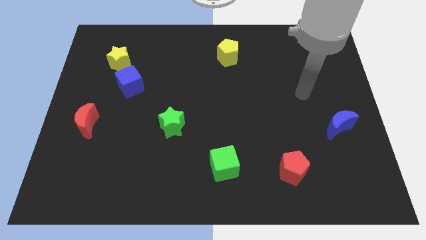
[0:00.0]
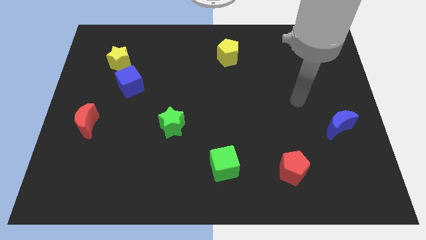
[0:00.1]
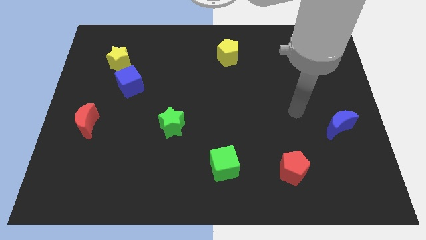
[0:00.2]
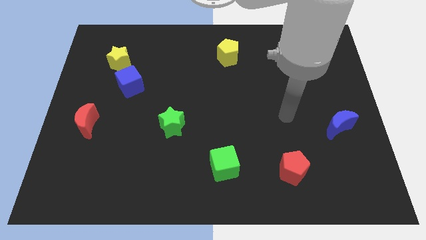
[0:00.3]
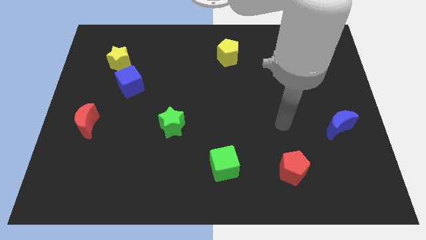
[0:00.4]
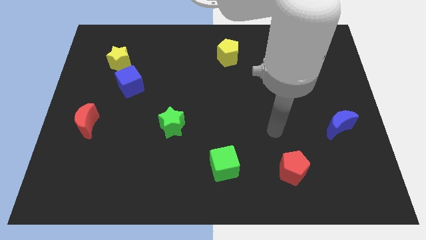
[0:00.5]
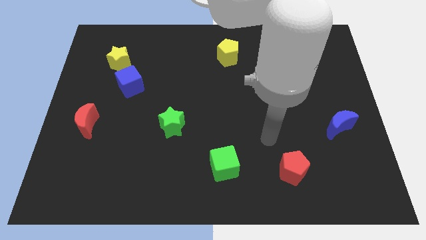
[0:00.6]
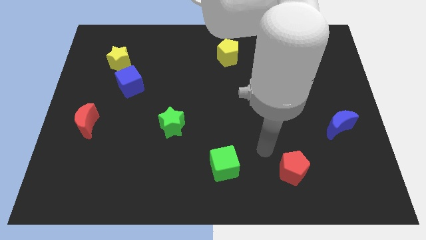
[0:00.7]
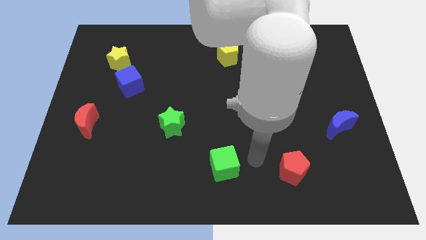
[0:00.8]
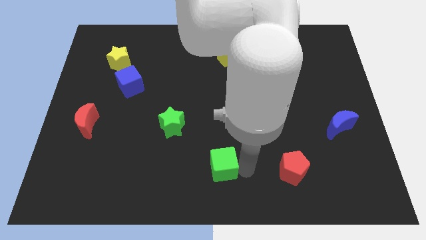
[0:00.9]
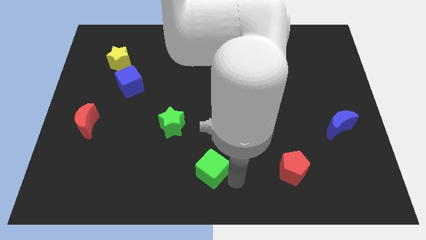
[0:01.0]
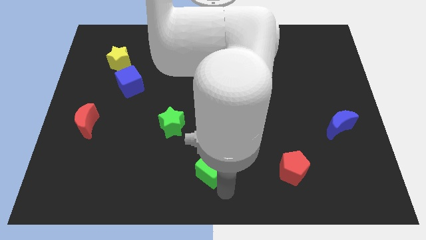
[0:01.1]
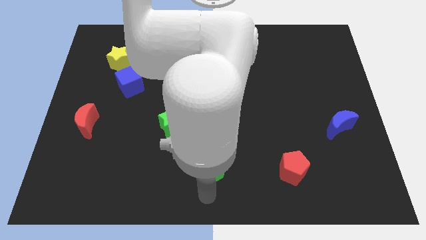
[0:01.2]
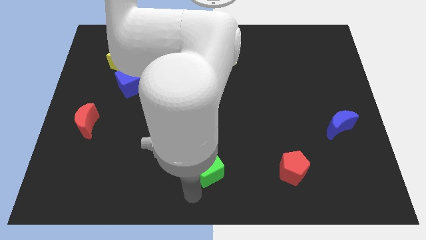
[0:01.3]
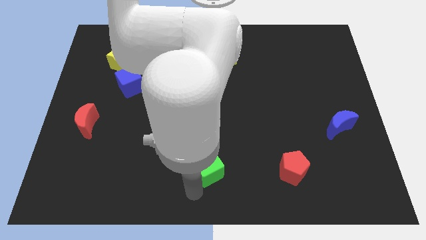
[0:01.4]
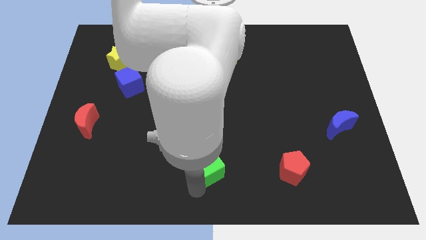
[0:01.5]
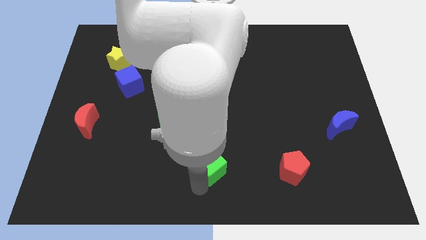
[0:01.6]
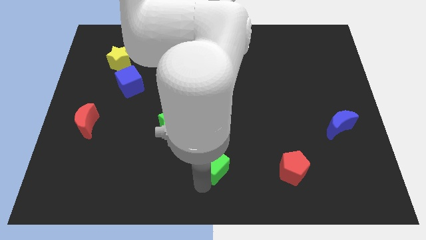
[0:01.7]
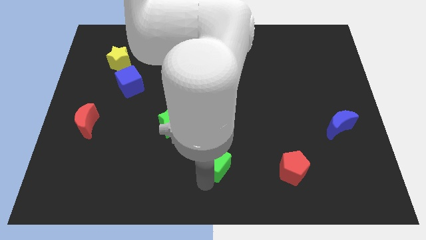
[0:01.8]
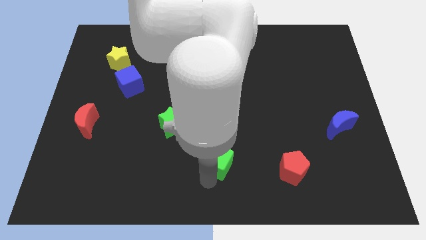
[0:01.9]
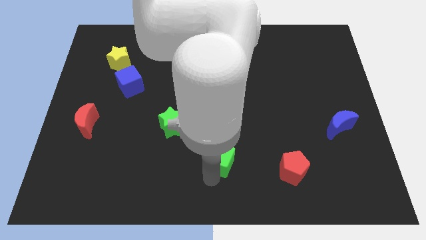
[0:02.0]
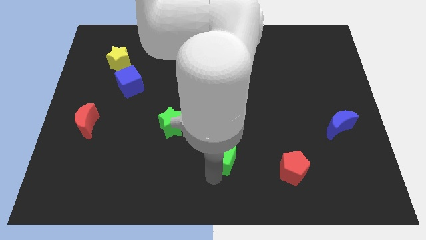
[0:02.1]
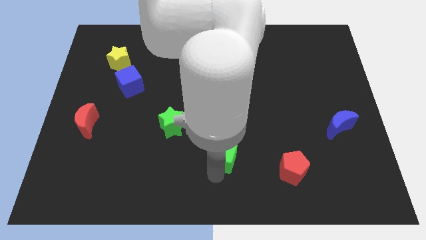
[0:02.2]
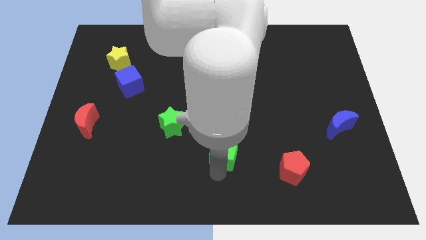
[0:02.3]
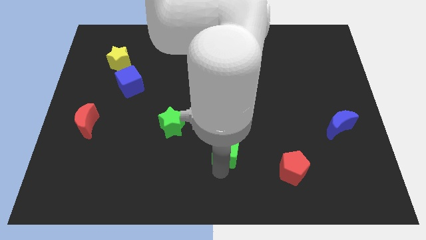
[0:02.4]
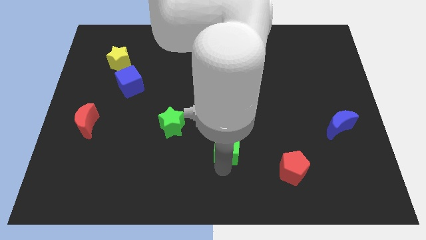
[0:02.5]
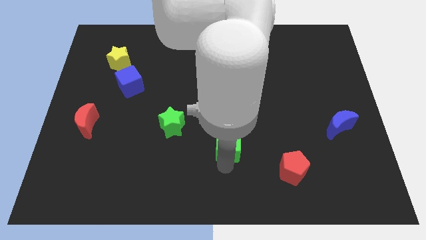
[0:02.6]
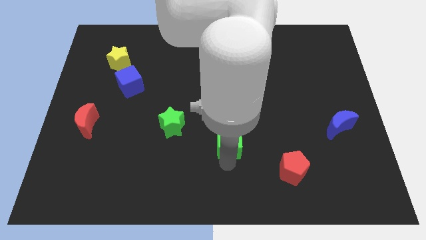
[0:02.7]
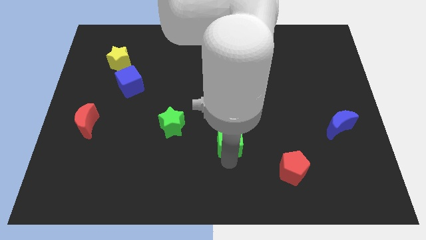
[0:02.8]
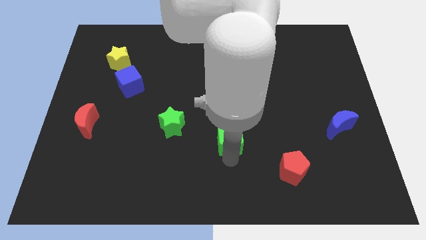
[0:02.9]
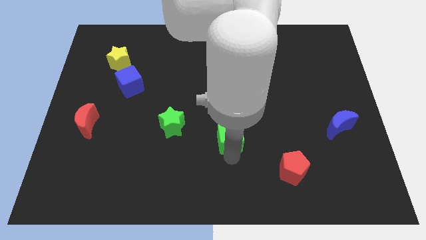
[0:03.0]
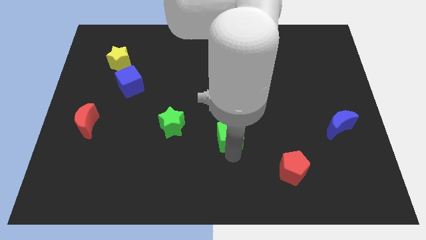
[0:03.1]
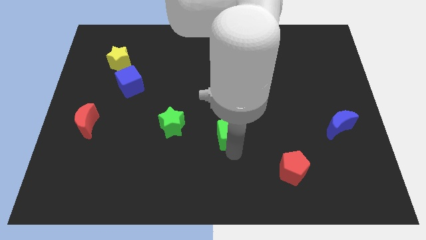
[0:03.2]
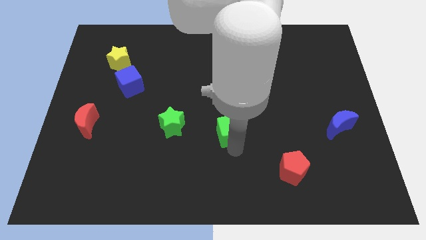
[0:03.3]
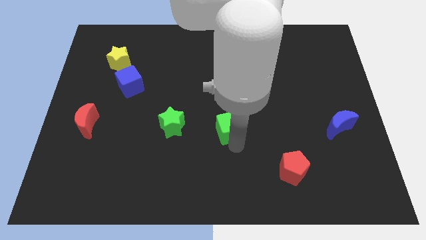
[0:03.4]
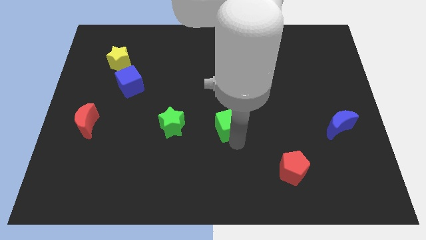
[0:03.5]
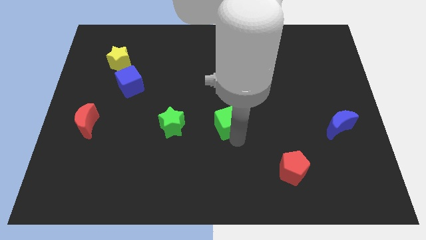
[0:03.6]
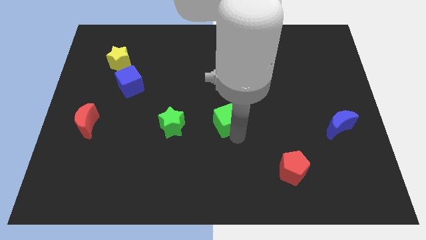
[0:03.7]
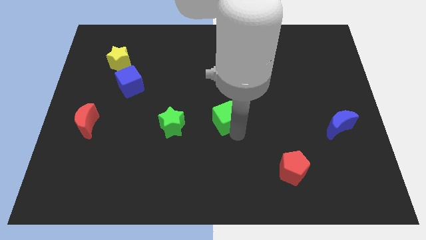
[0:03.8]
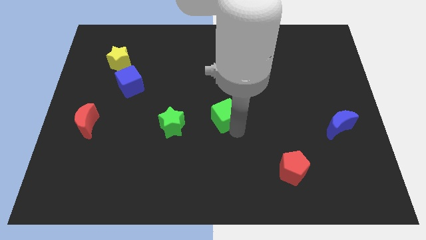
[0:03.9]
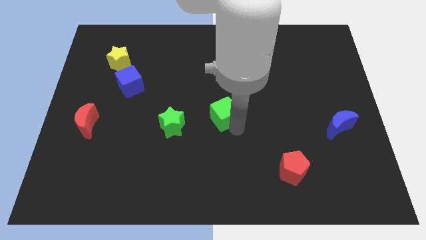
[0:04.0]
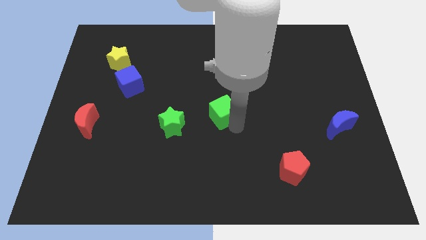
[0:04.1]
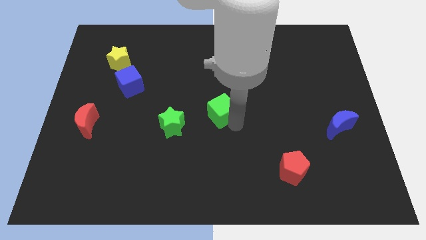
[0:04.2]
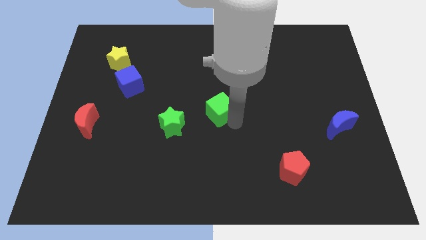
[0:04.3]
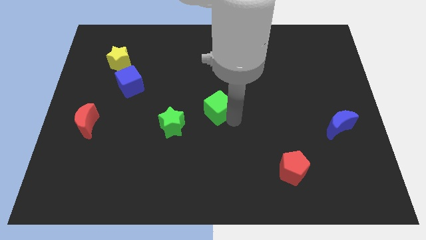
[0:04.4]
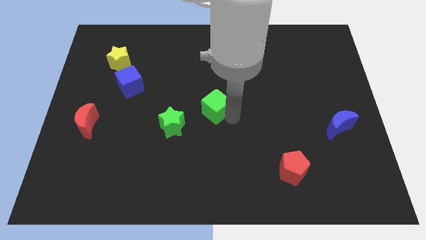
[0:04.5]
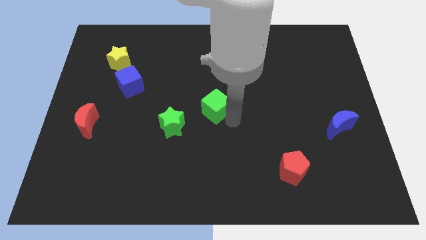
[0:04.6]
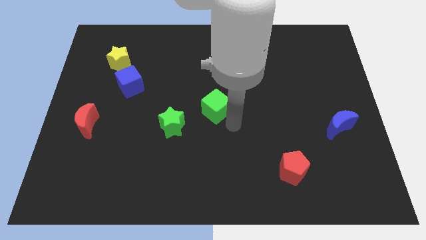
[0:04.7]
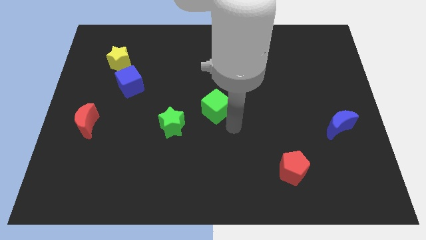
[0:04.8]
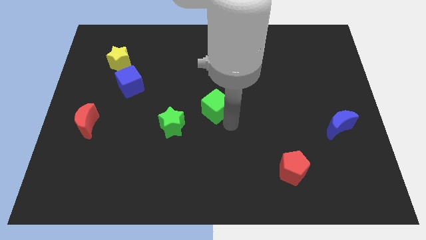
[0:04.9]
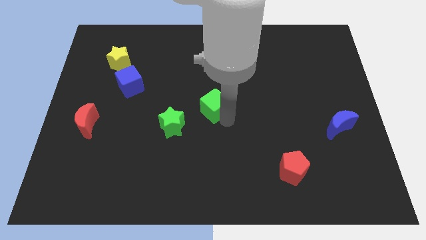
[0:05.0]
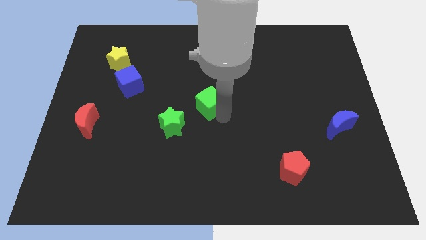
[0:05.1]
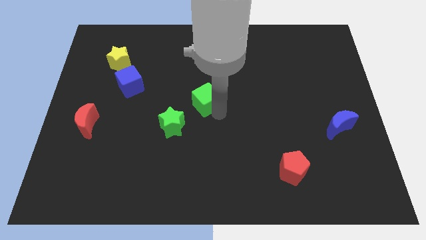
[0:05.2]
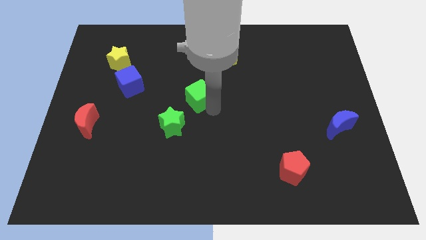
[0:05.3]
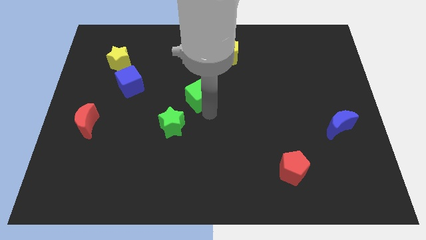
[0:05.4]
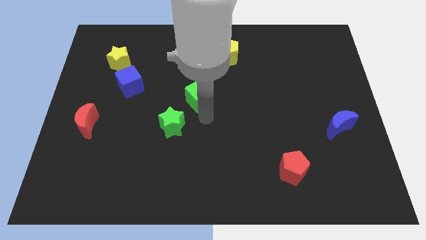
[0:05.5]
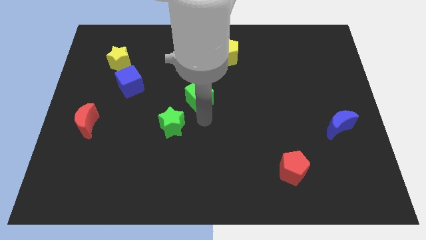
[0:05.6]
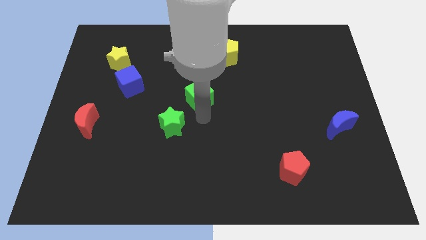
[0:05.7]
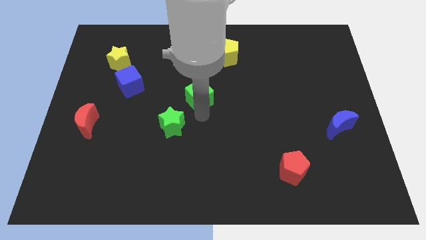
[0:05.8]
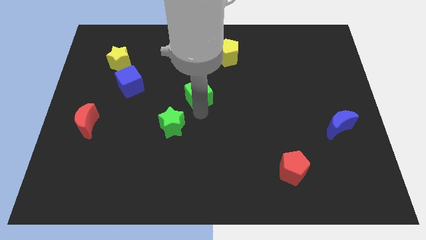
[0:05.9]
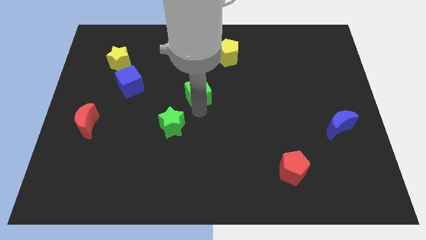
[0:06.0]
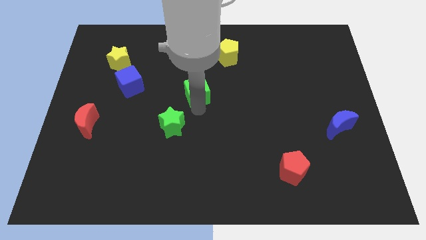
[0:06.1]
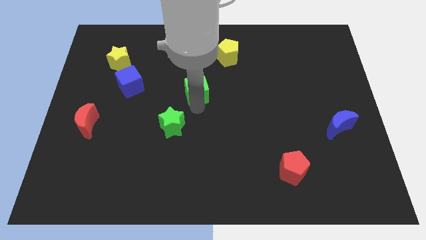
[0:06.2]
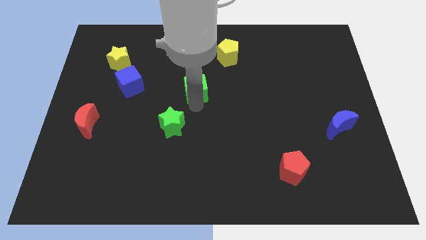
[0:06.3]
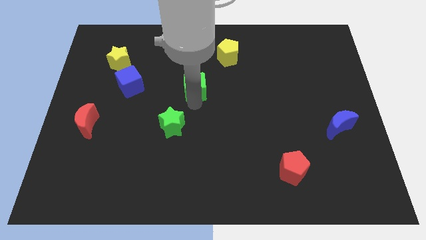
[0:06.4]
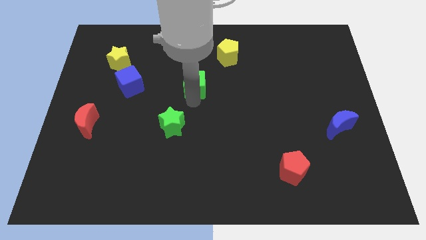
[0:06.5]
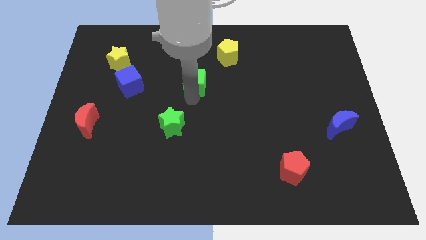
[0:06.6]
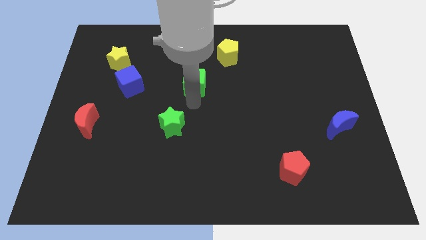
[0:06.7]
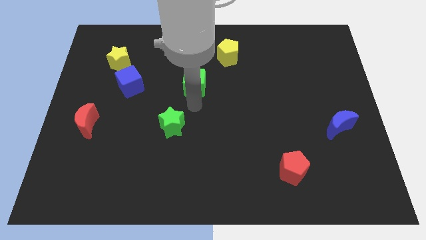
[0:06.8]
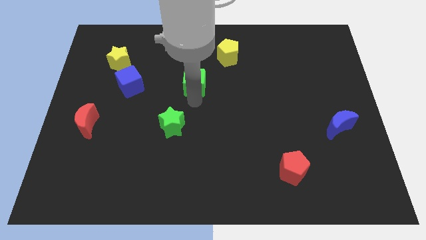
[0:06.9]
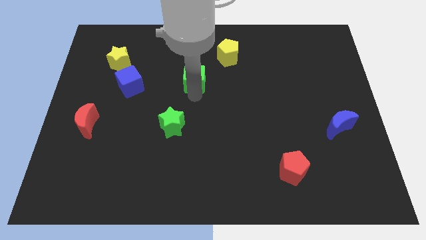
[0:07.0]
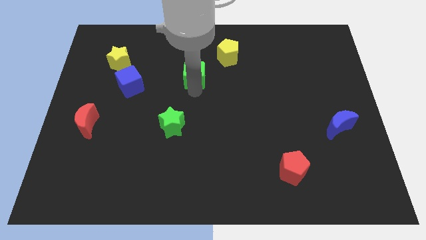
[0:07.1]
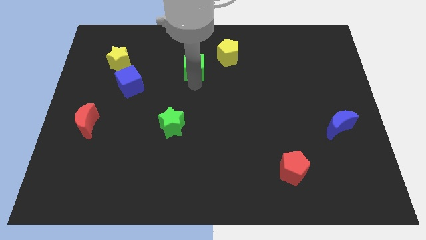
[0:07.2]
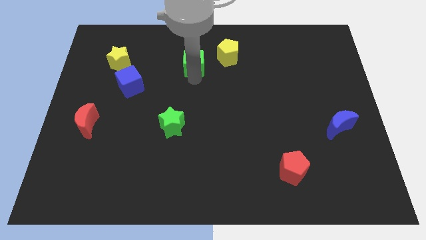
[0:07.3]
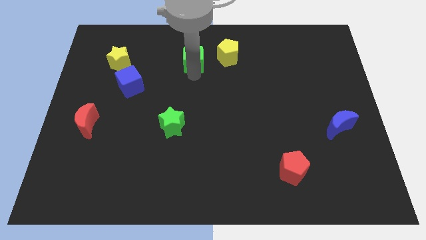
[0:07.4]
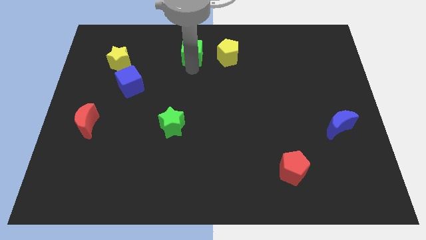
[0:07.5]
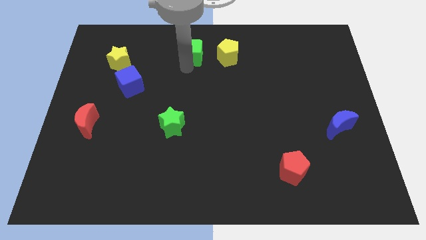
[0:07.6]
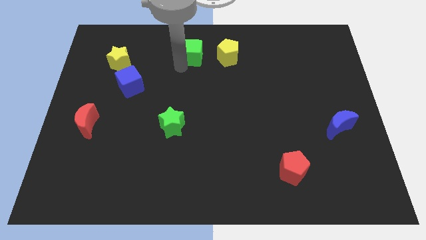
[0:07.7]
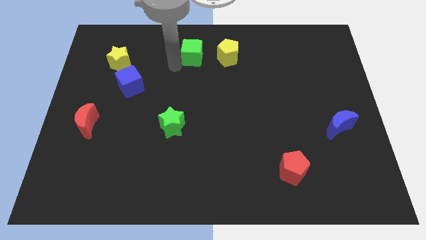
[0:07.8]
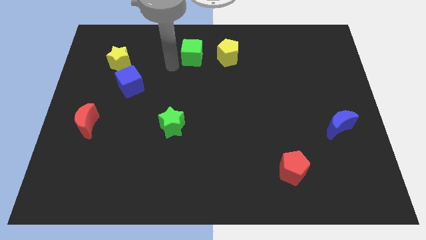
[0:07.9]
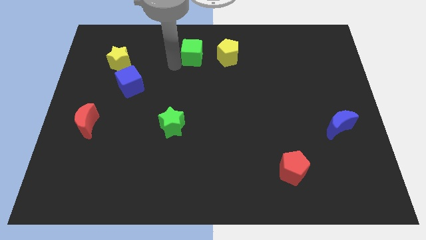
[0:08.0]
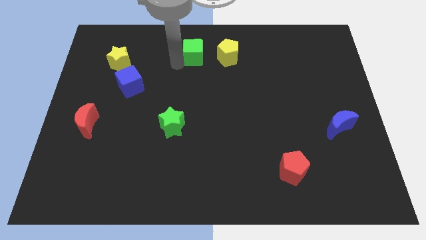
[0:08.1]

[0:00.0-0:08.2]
move the green cube to the top side
